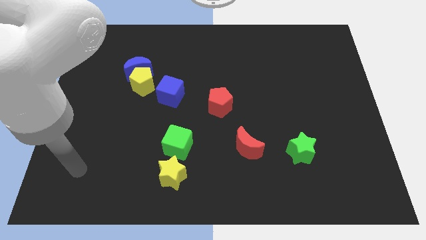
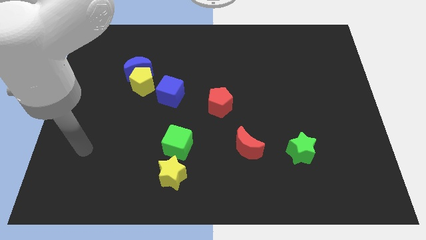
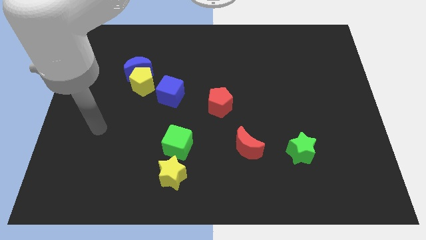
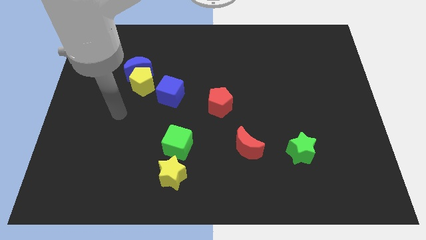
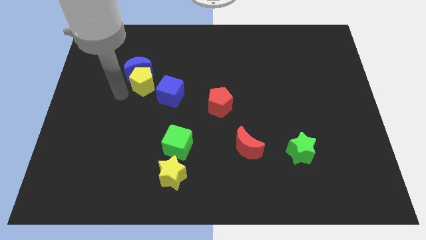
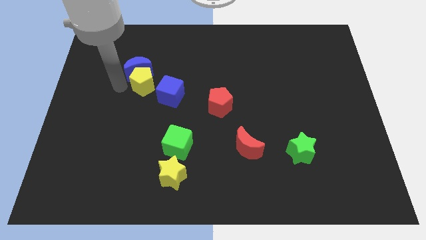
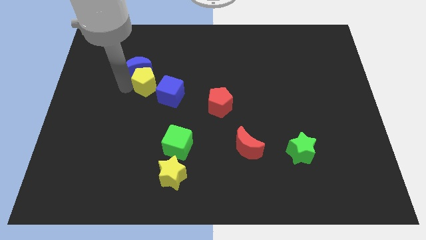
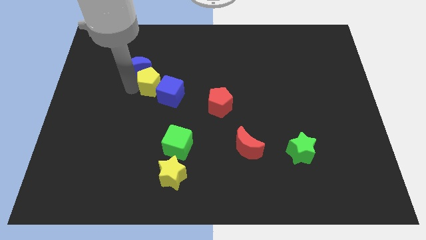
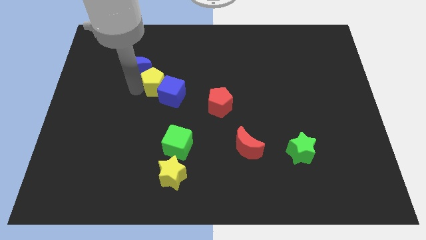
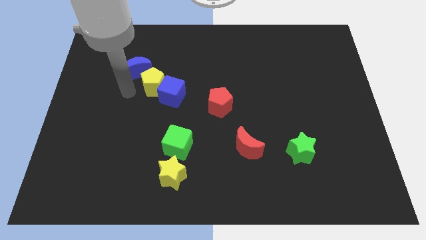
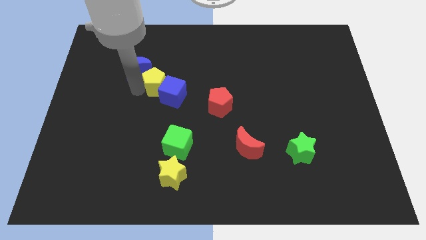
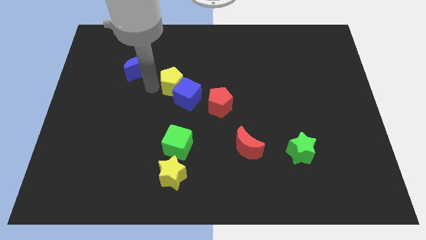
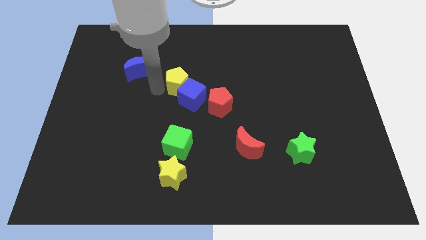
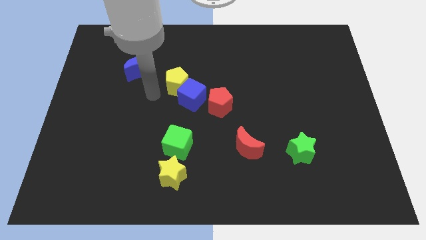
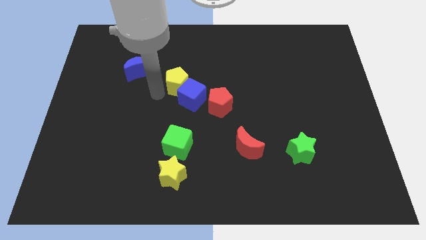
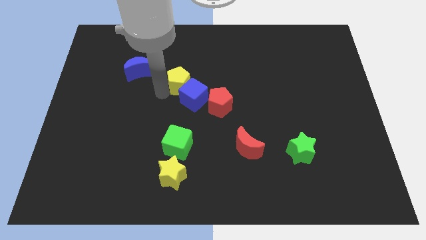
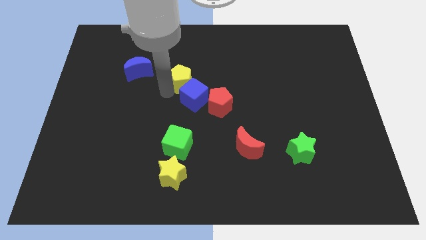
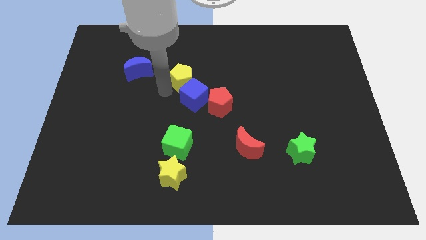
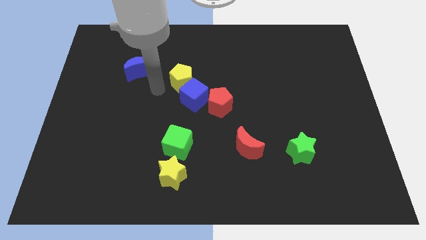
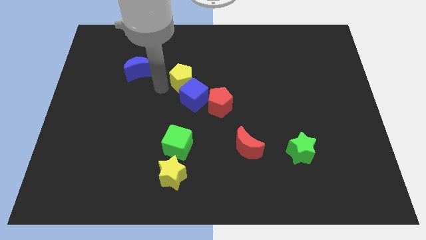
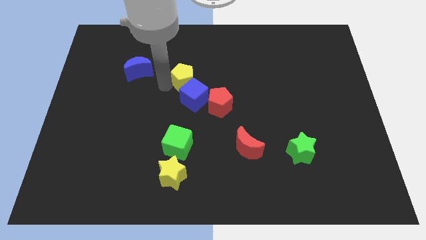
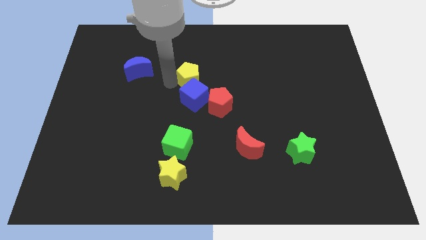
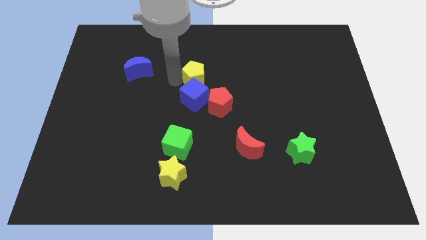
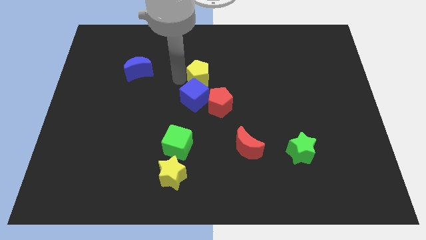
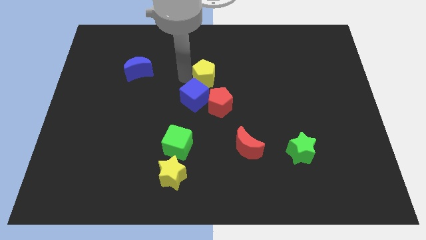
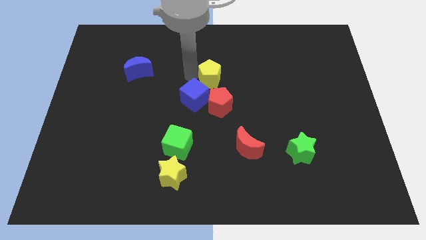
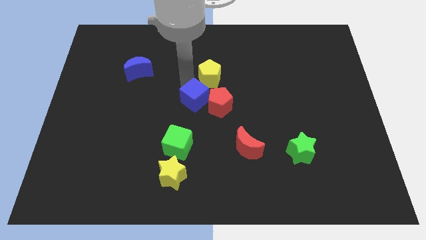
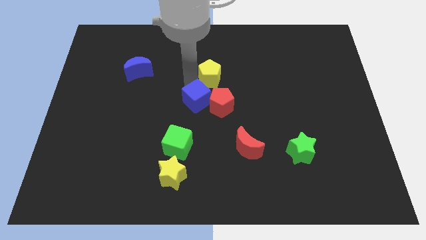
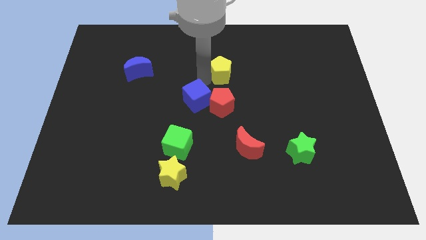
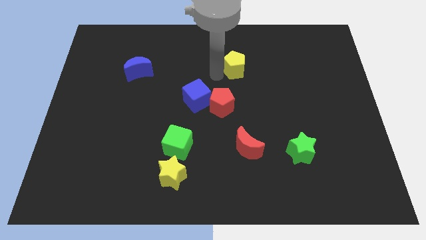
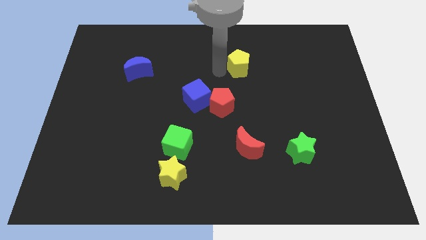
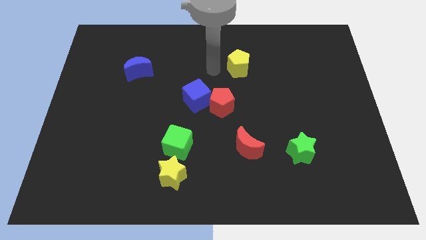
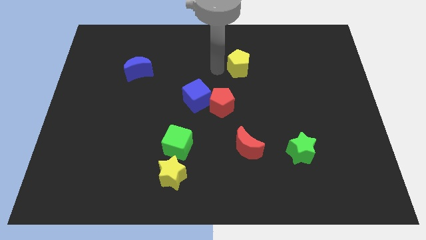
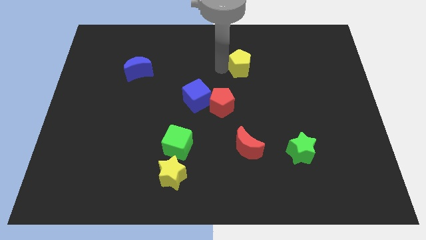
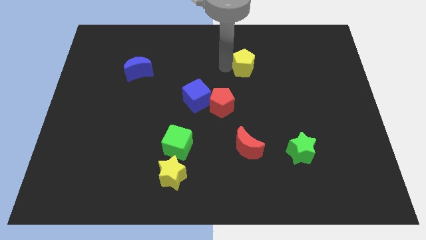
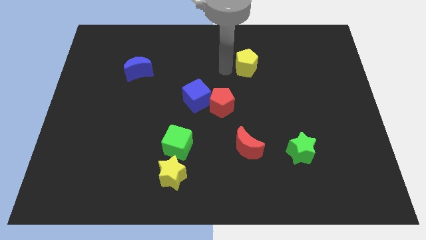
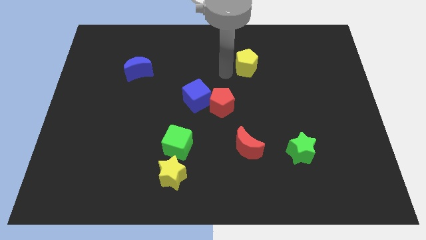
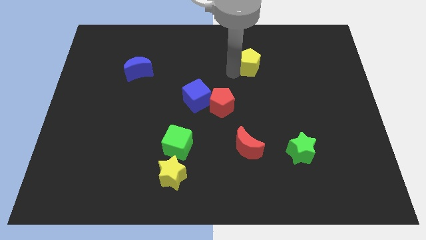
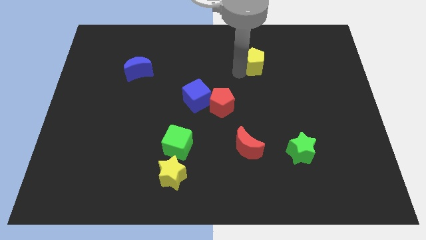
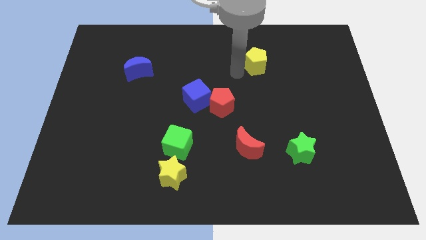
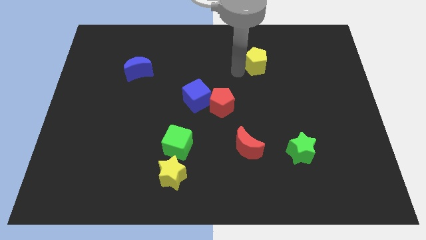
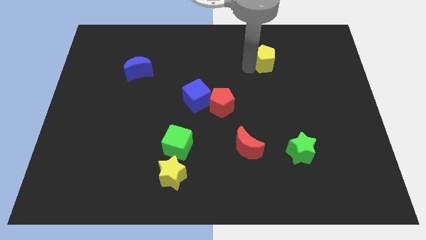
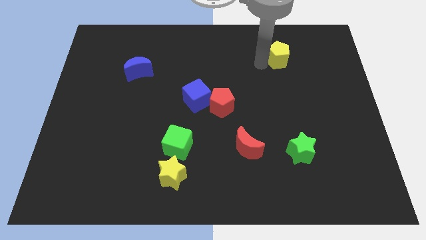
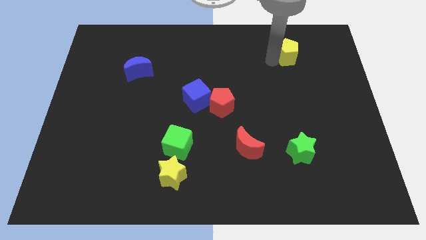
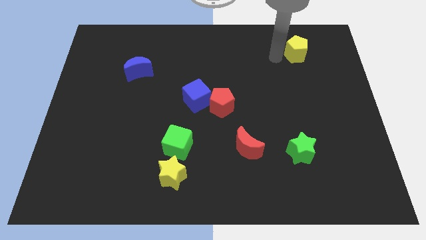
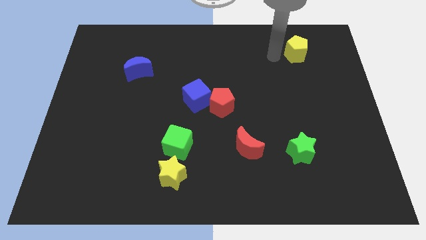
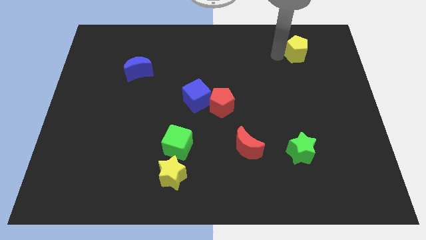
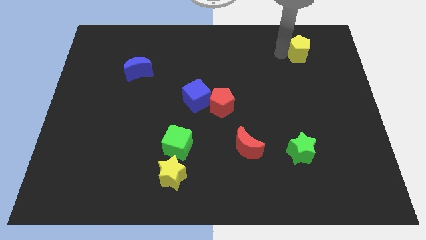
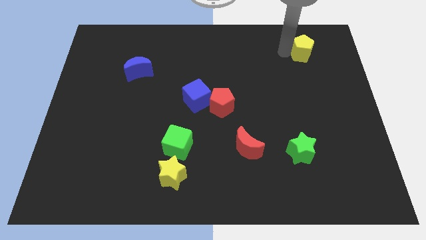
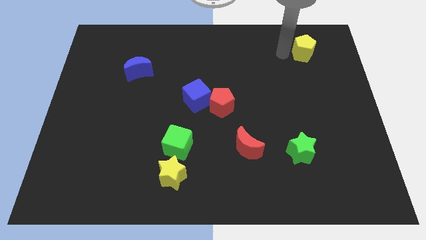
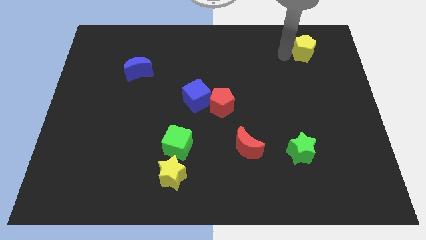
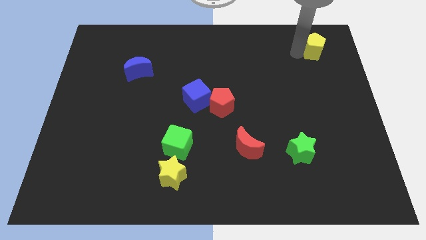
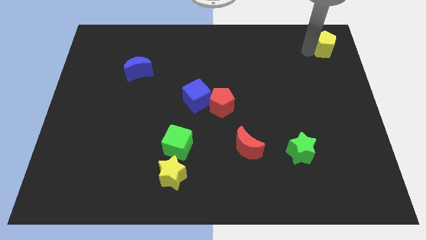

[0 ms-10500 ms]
move the yellow pentagon to the top right

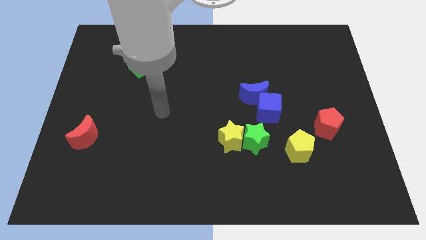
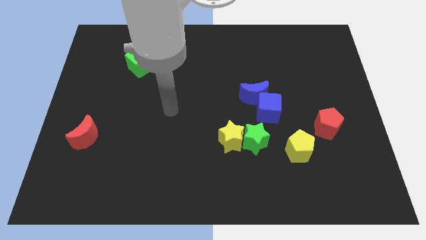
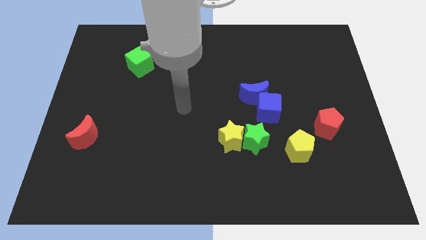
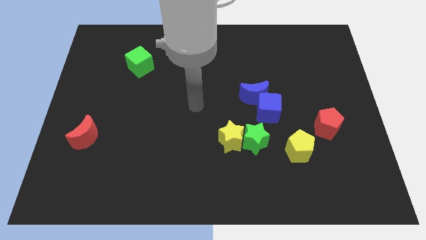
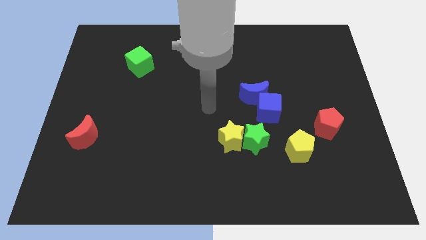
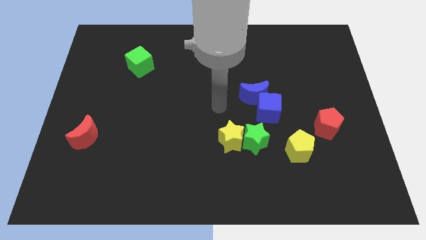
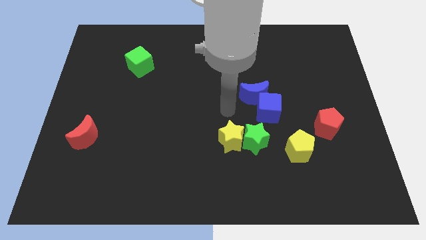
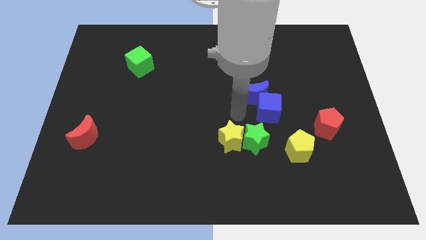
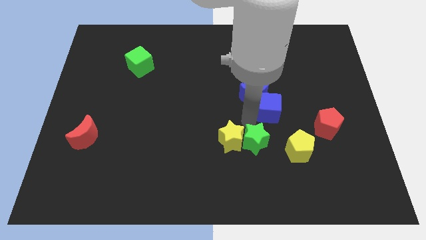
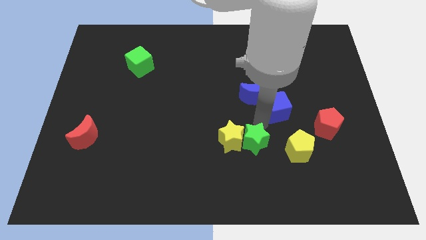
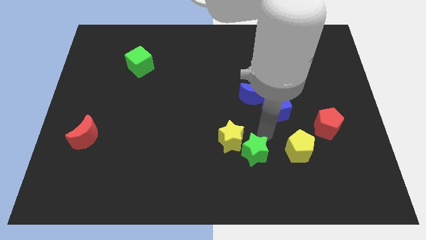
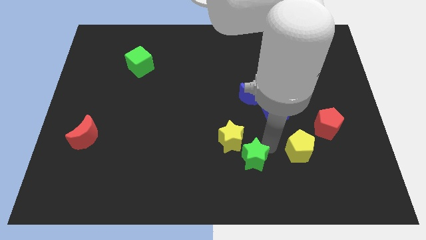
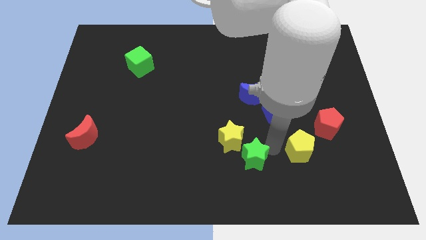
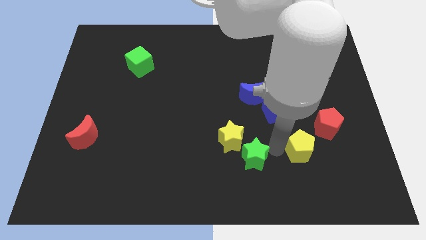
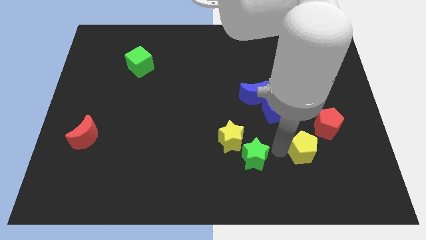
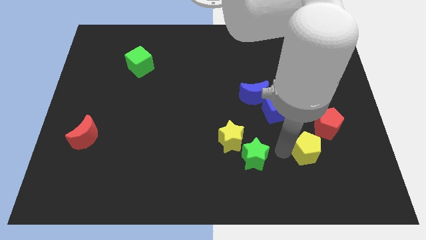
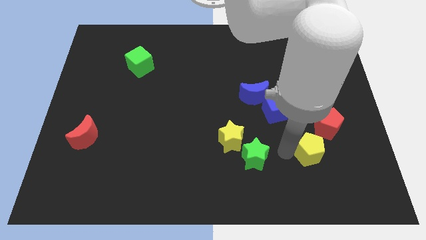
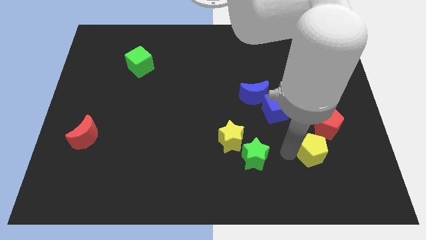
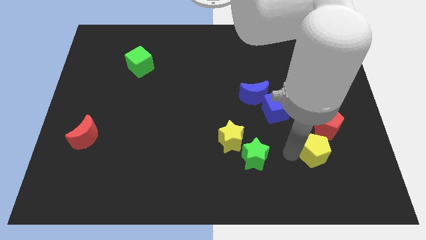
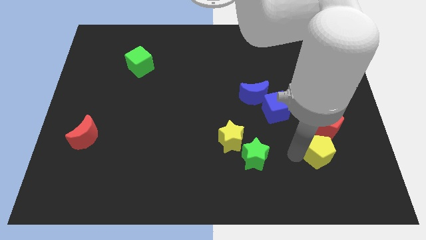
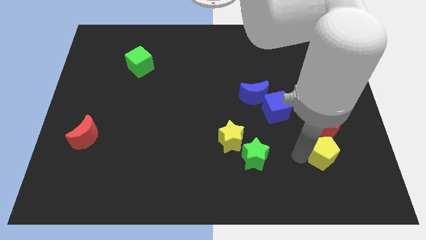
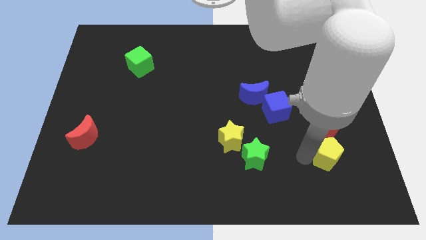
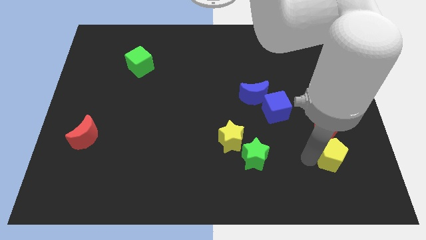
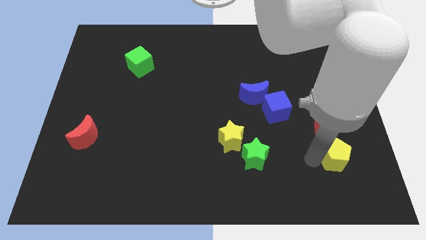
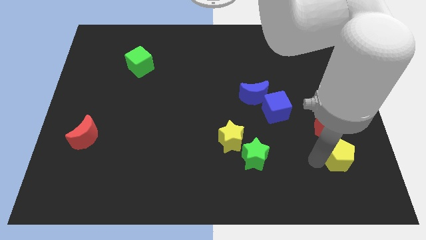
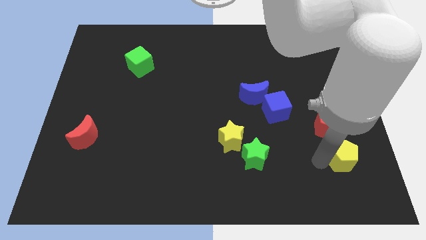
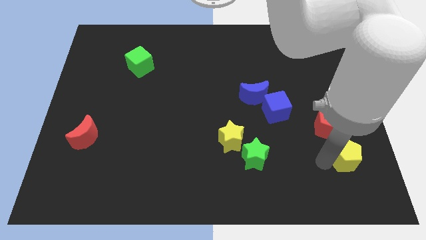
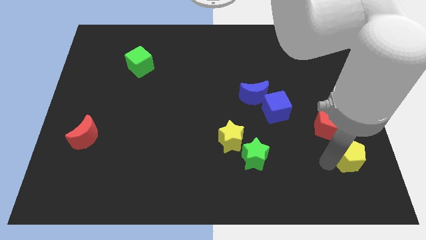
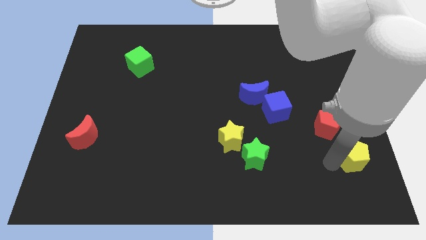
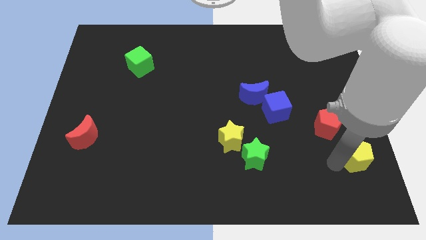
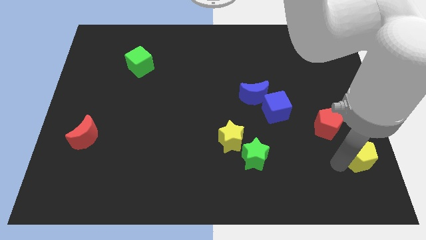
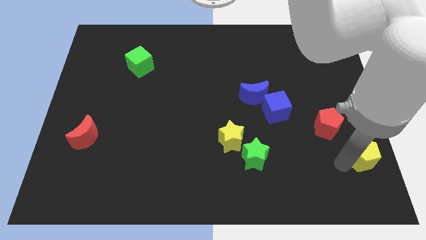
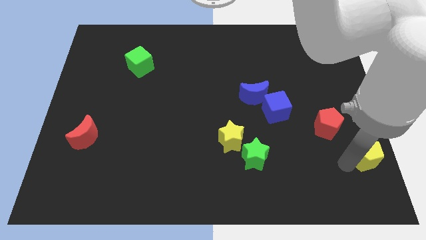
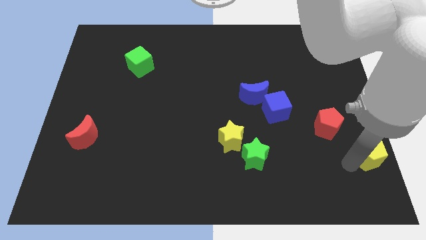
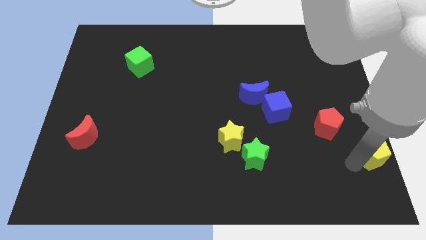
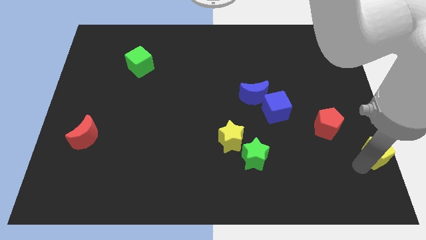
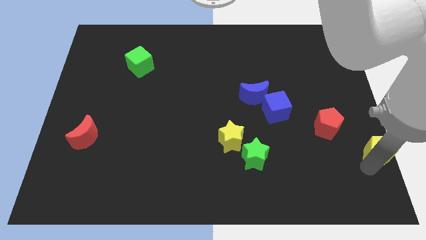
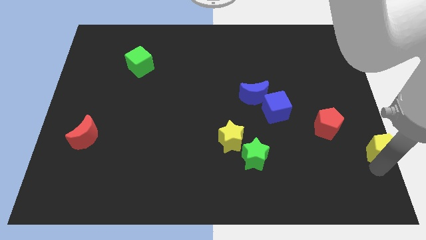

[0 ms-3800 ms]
slide the yellow pentagon to the right side
